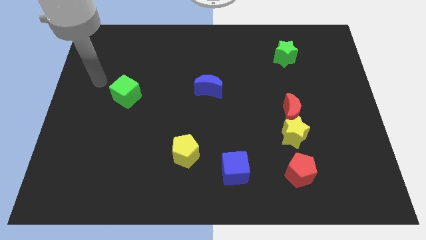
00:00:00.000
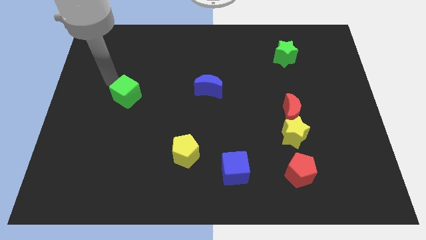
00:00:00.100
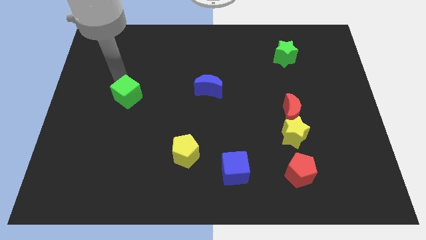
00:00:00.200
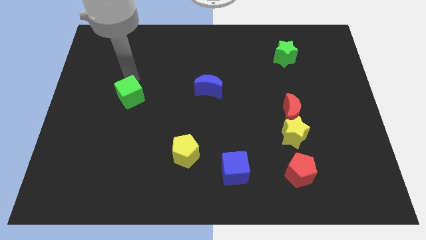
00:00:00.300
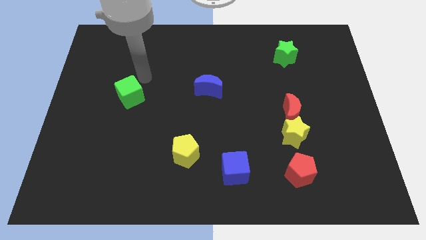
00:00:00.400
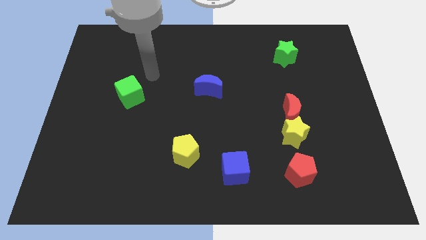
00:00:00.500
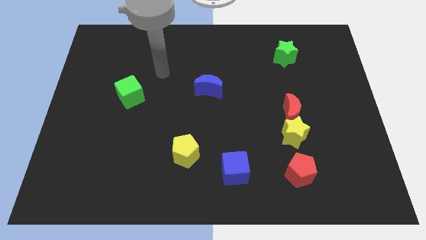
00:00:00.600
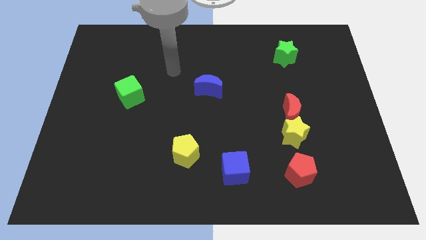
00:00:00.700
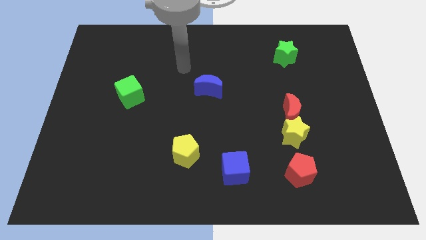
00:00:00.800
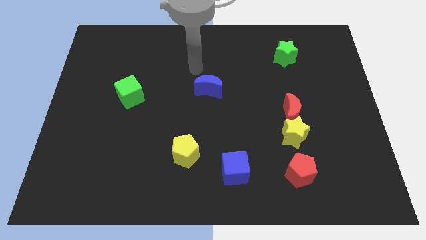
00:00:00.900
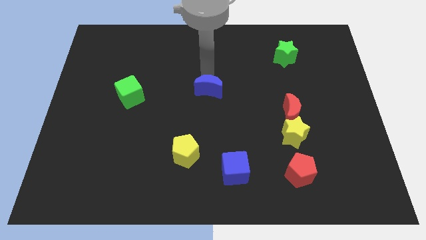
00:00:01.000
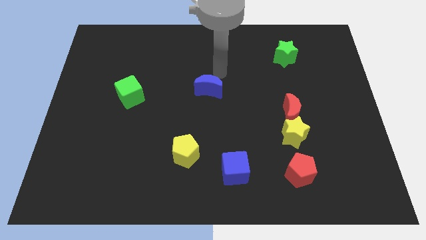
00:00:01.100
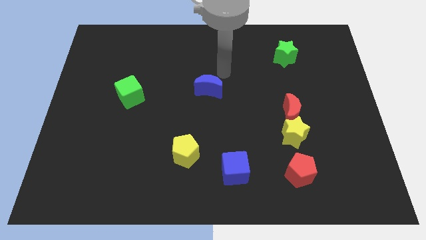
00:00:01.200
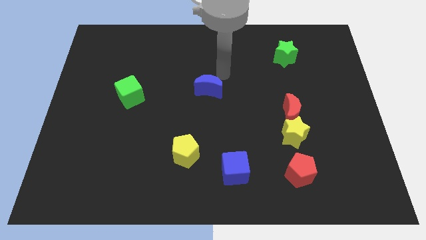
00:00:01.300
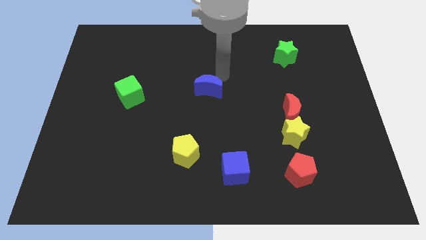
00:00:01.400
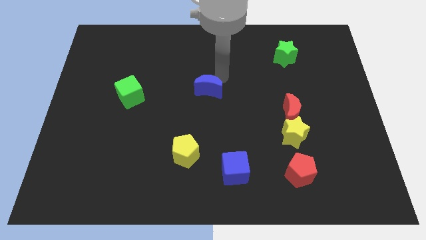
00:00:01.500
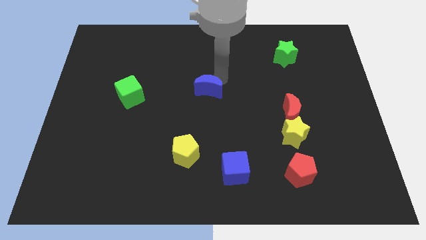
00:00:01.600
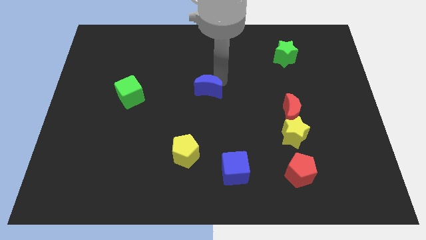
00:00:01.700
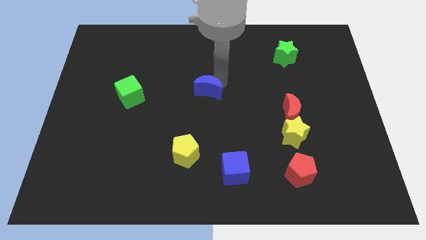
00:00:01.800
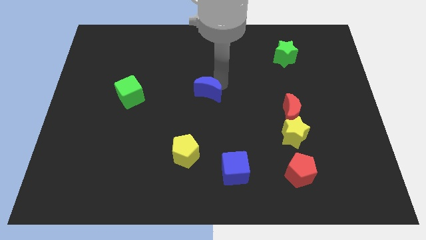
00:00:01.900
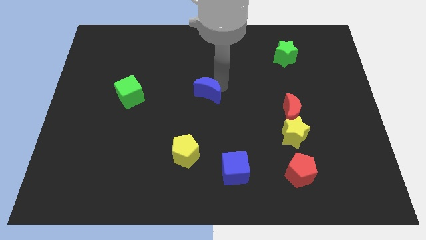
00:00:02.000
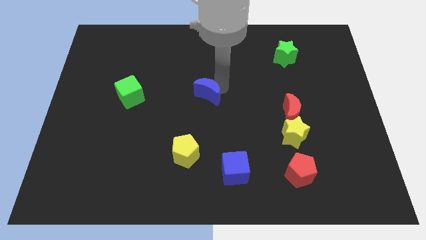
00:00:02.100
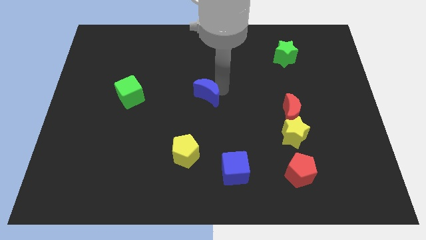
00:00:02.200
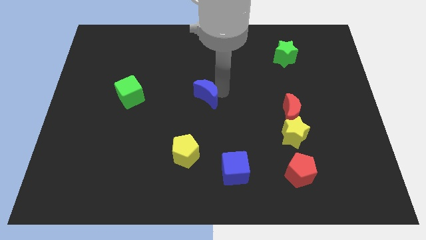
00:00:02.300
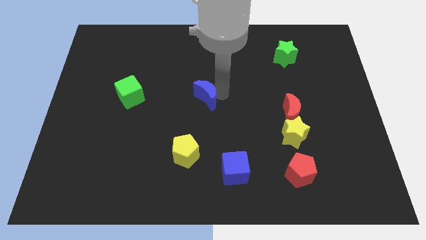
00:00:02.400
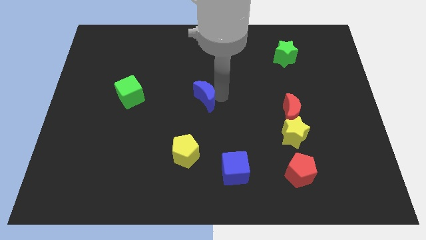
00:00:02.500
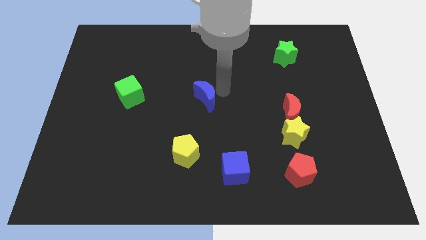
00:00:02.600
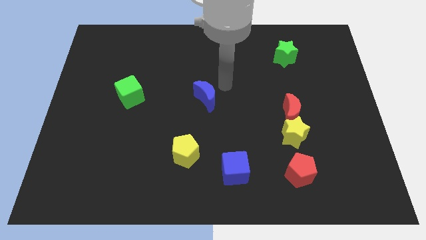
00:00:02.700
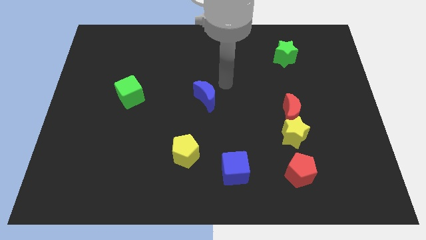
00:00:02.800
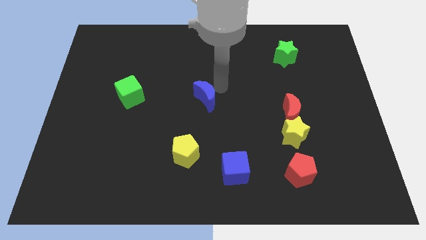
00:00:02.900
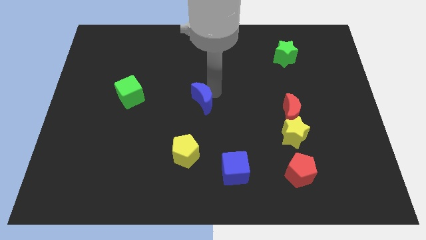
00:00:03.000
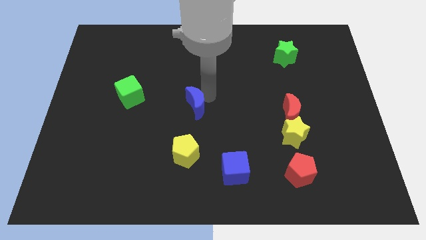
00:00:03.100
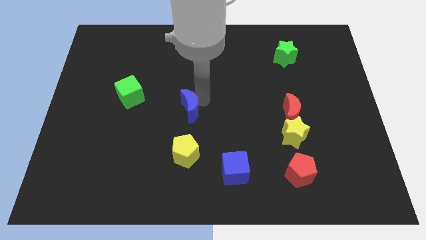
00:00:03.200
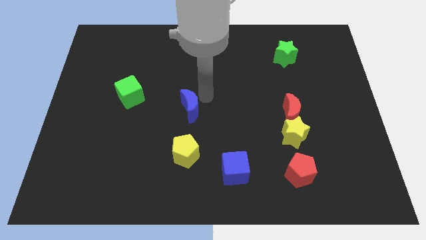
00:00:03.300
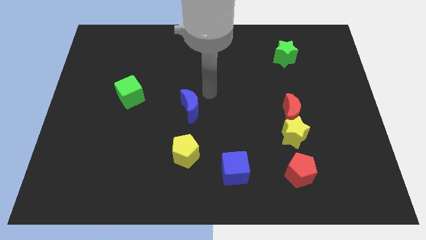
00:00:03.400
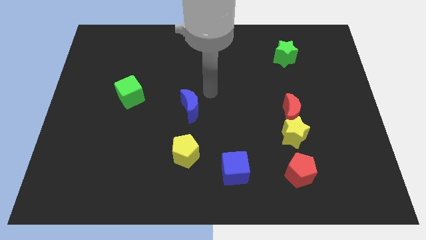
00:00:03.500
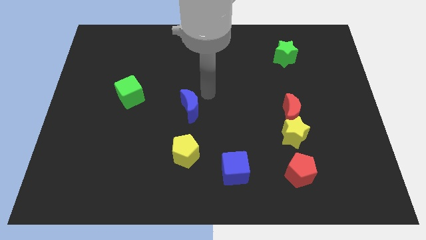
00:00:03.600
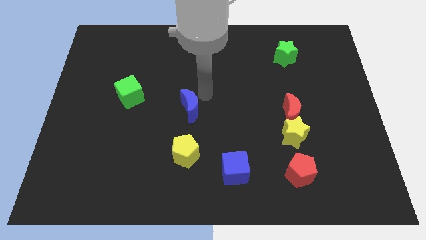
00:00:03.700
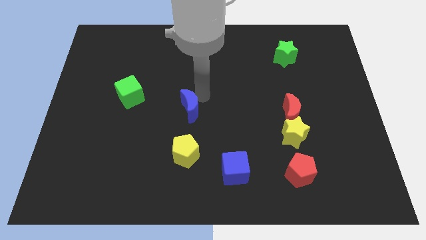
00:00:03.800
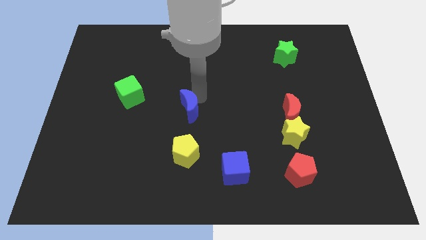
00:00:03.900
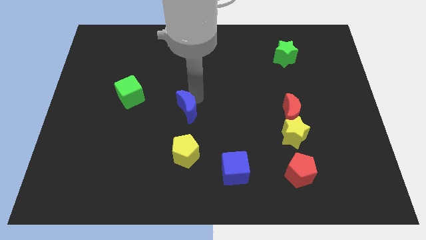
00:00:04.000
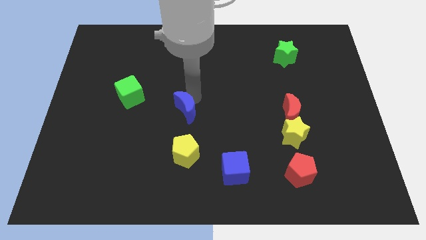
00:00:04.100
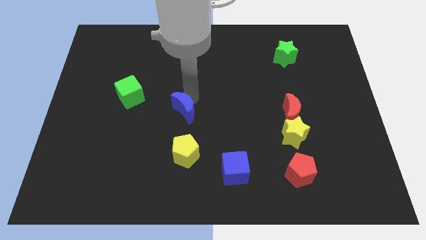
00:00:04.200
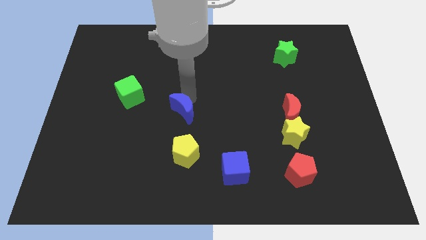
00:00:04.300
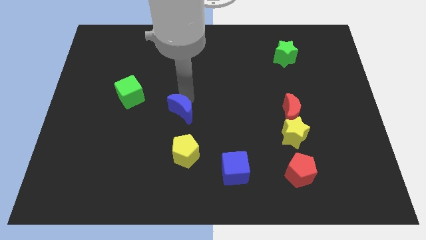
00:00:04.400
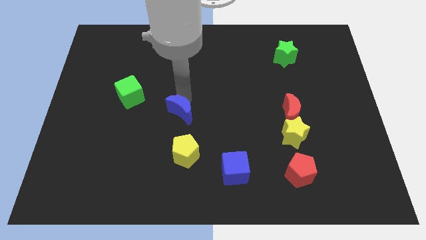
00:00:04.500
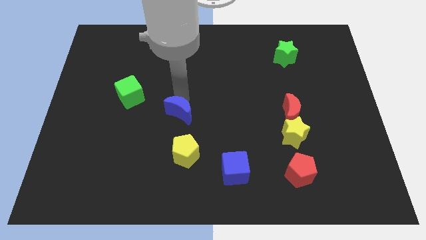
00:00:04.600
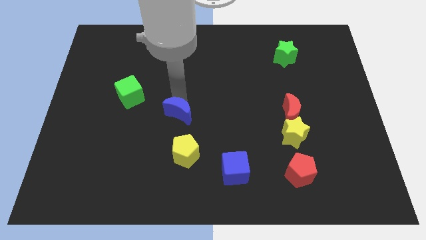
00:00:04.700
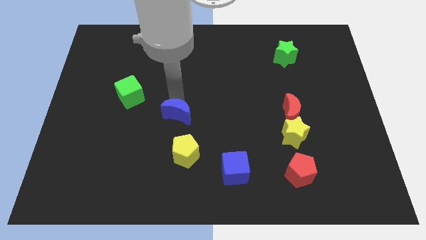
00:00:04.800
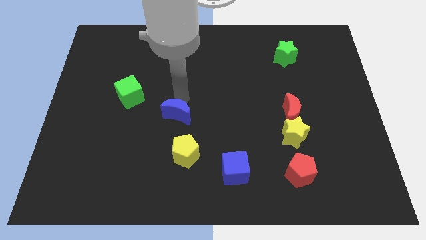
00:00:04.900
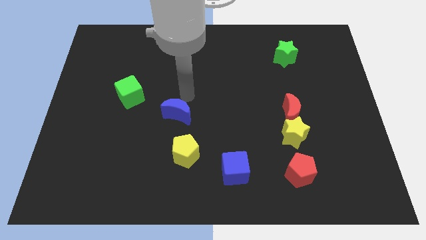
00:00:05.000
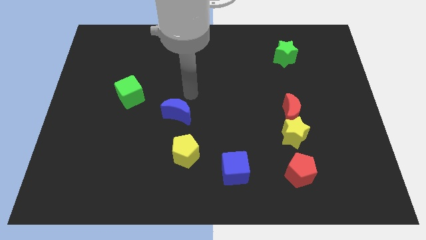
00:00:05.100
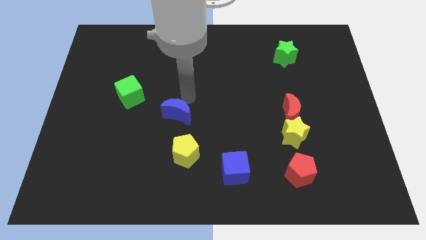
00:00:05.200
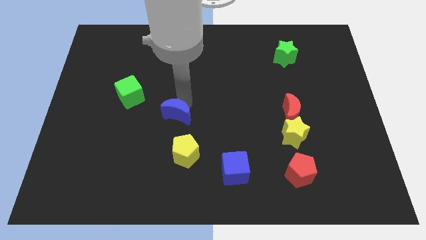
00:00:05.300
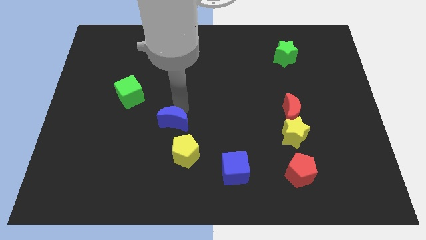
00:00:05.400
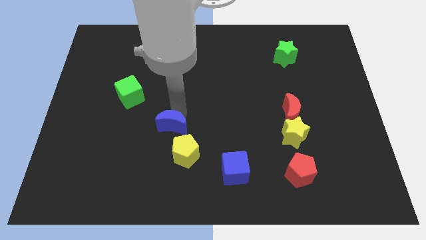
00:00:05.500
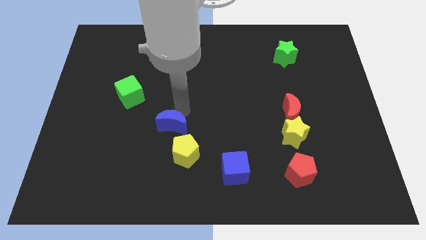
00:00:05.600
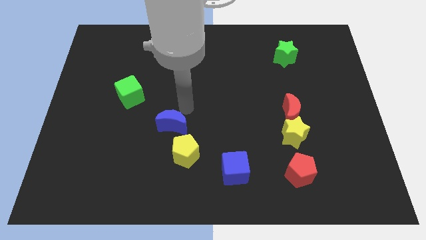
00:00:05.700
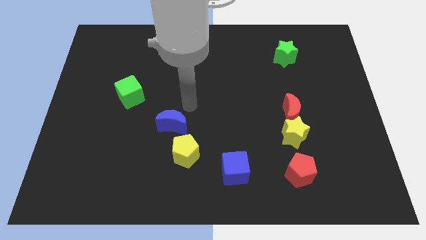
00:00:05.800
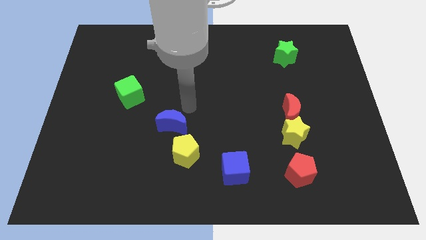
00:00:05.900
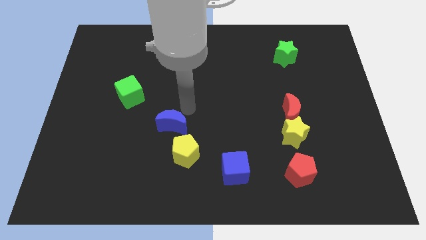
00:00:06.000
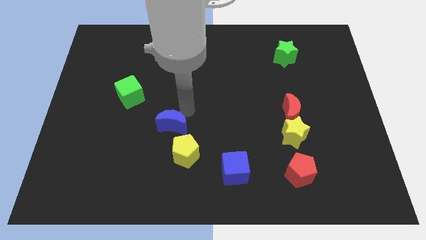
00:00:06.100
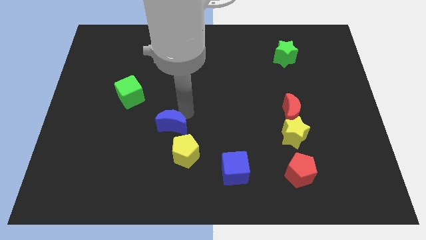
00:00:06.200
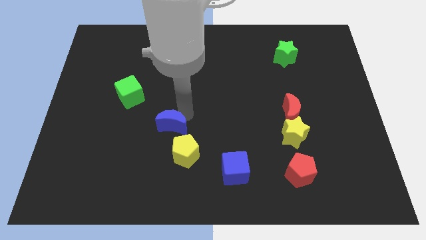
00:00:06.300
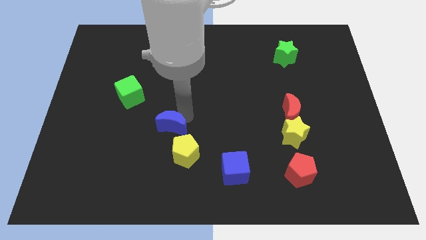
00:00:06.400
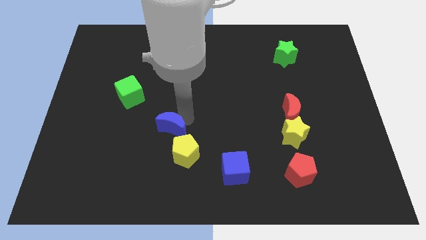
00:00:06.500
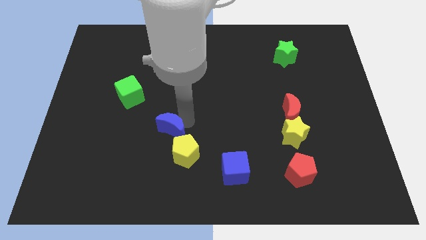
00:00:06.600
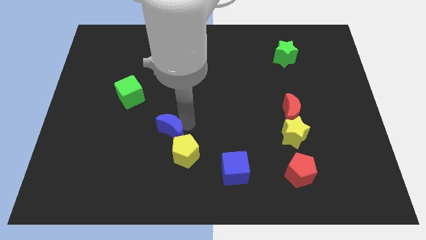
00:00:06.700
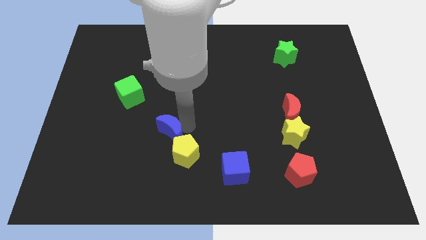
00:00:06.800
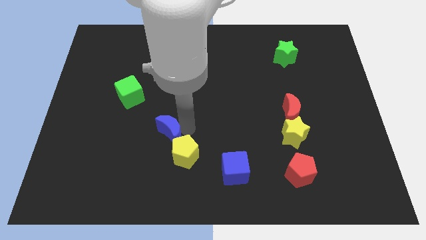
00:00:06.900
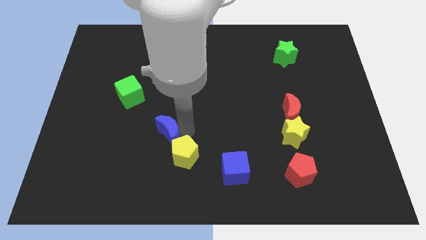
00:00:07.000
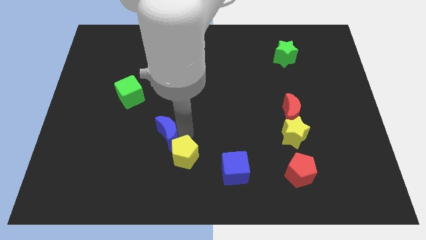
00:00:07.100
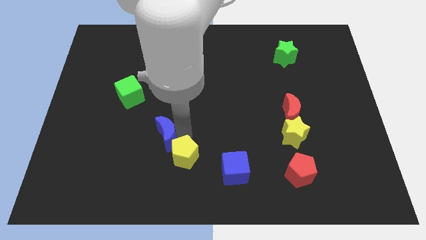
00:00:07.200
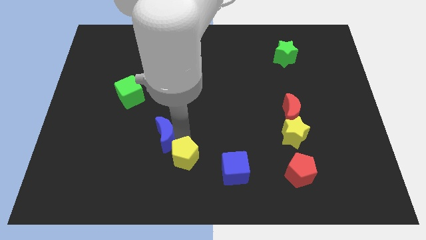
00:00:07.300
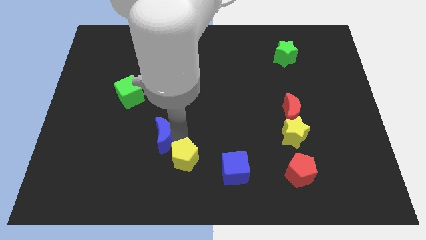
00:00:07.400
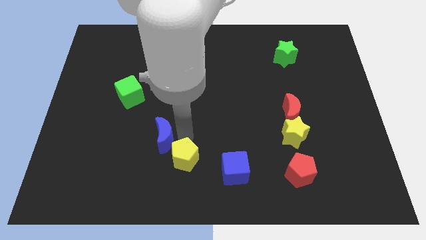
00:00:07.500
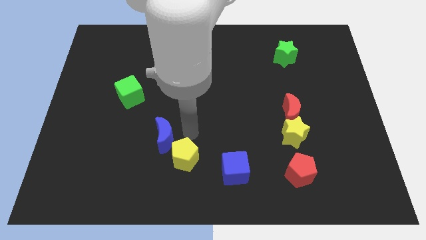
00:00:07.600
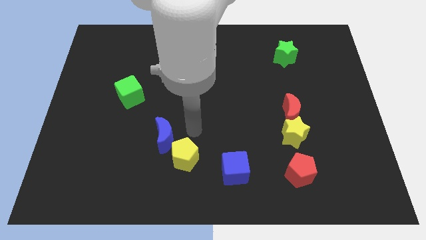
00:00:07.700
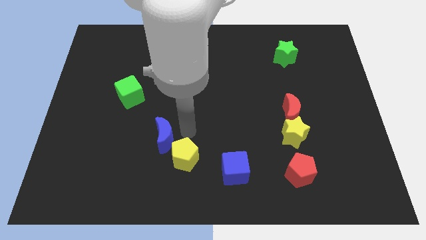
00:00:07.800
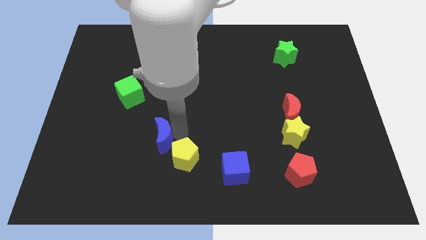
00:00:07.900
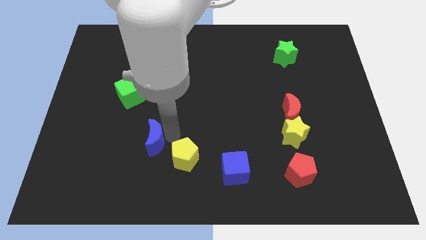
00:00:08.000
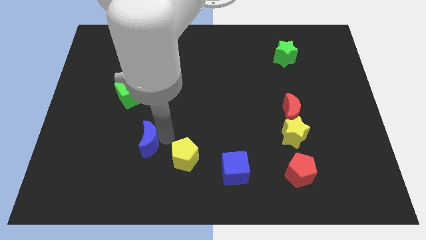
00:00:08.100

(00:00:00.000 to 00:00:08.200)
move the blue moon down and to the left

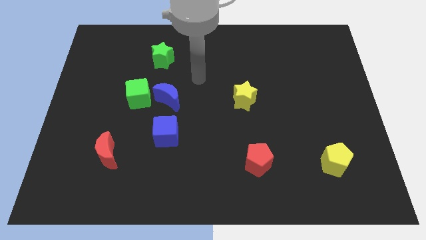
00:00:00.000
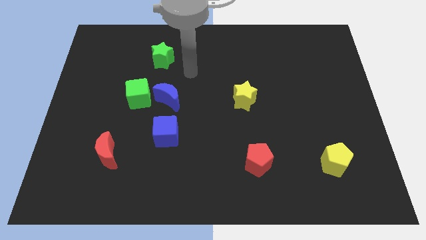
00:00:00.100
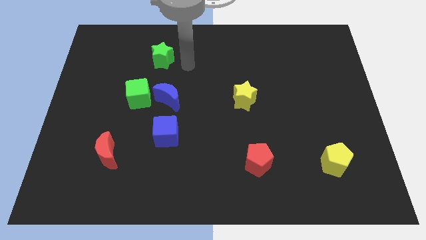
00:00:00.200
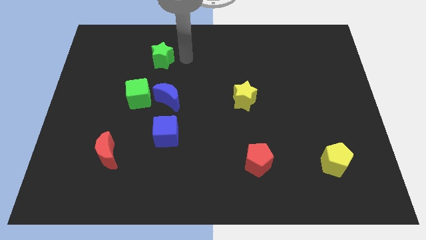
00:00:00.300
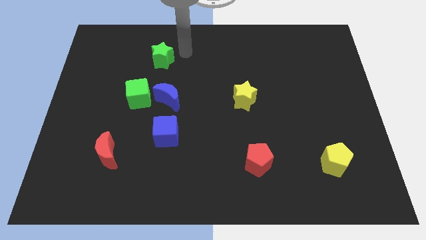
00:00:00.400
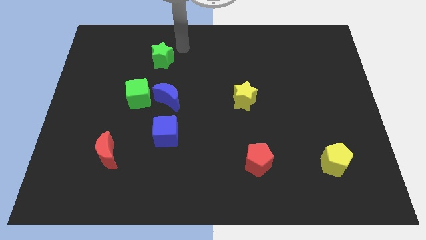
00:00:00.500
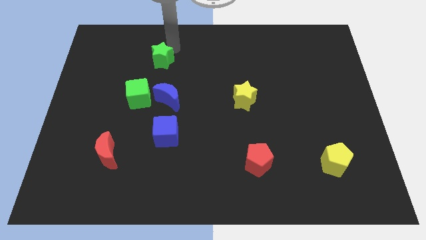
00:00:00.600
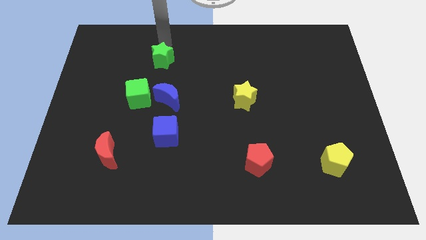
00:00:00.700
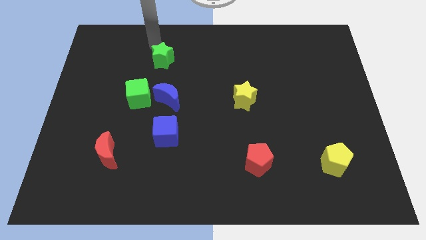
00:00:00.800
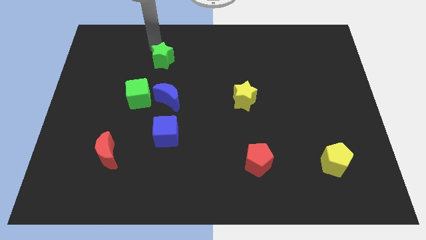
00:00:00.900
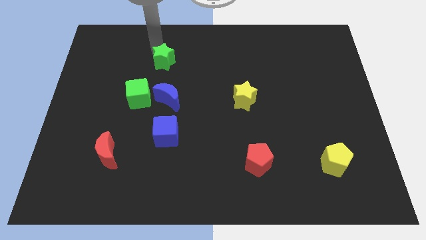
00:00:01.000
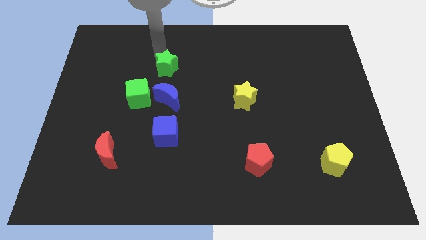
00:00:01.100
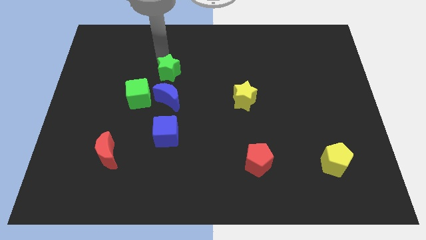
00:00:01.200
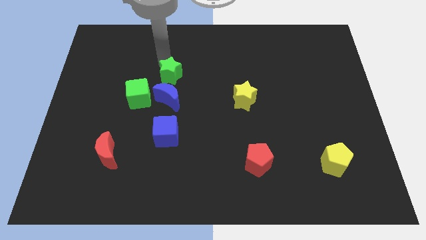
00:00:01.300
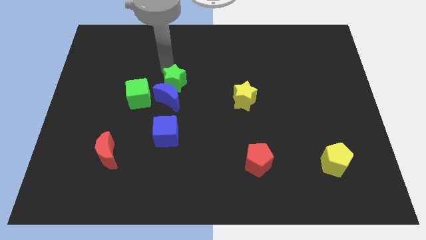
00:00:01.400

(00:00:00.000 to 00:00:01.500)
slide the green star a bit downwards
